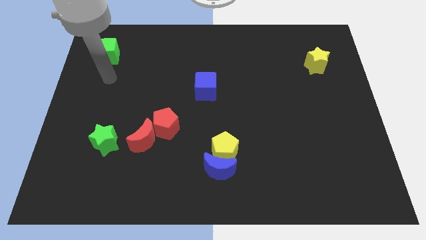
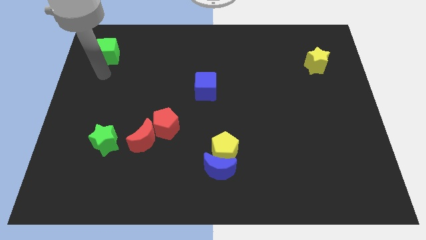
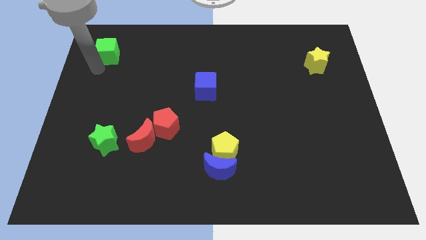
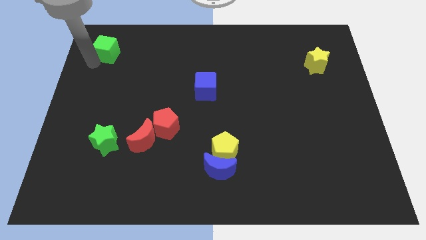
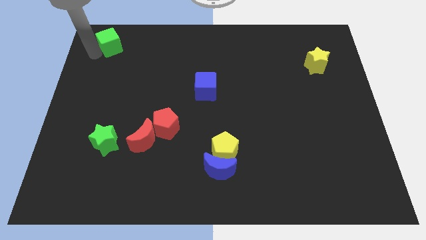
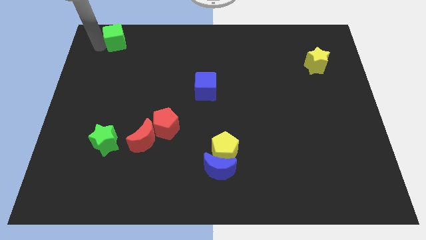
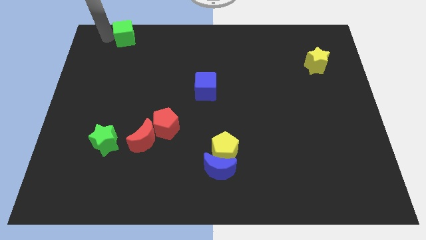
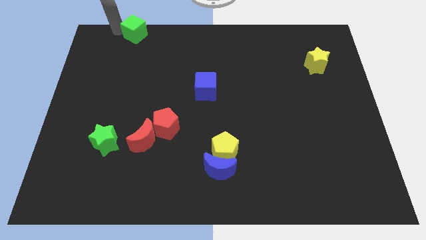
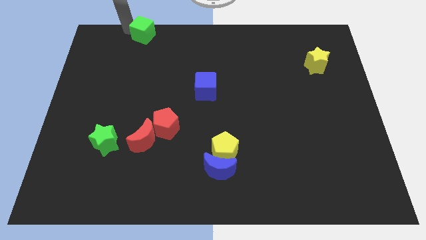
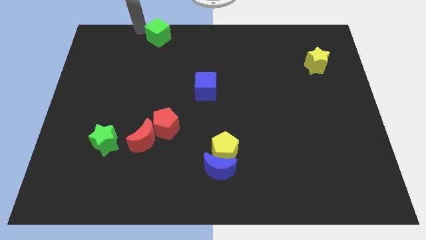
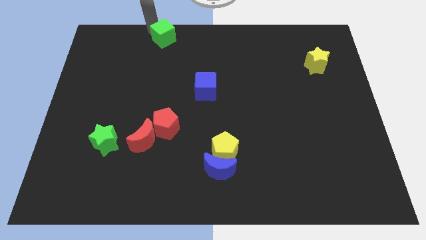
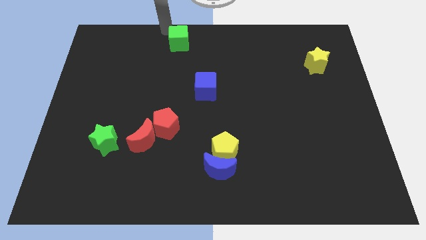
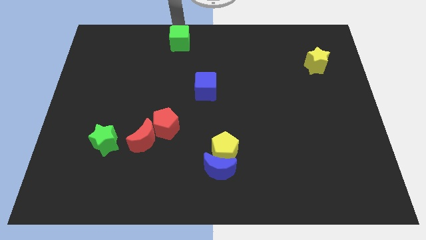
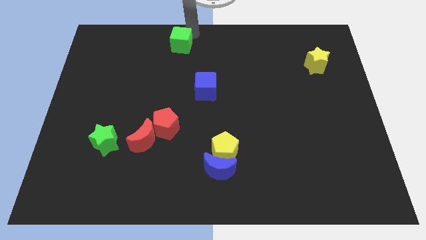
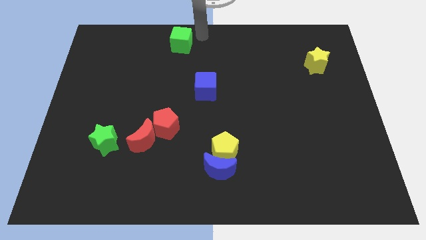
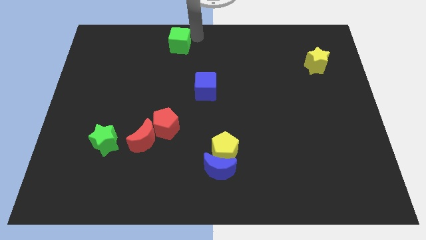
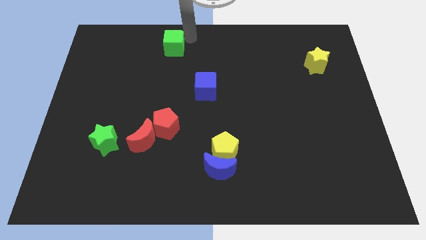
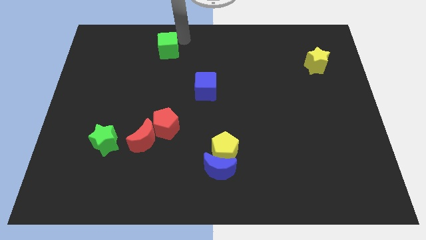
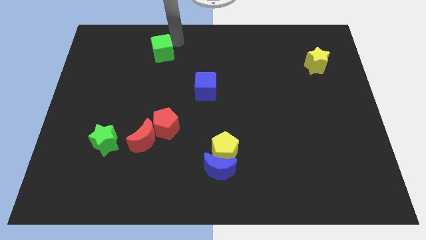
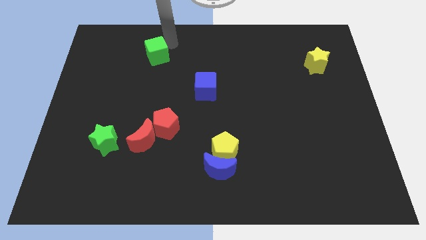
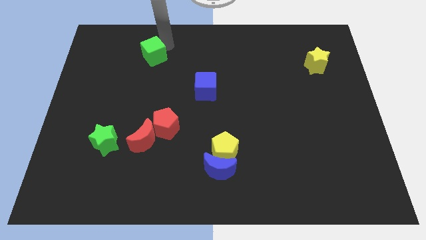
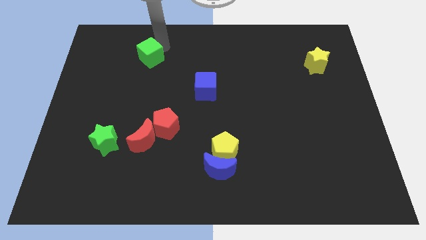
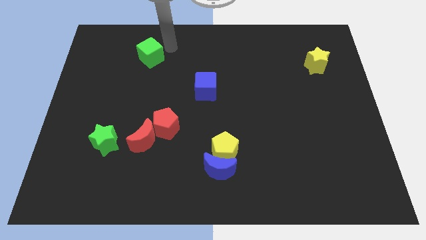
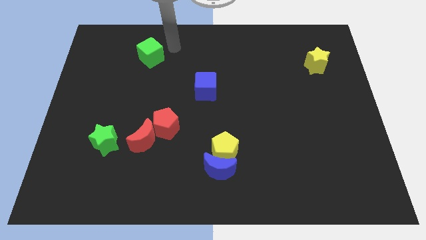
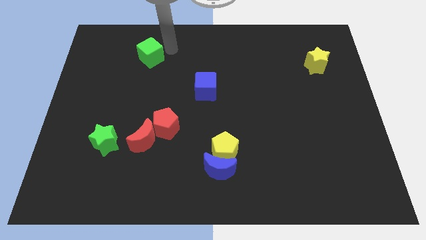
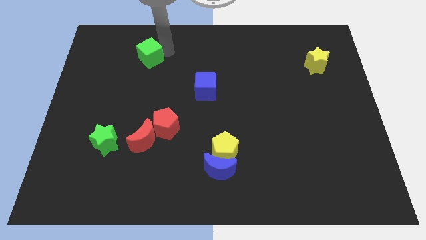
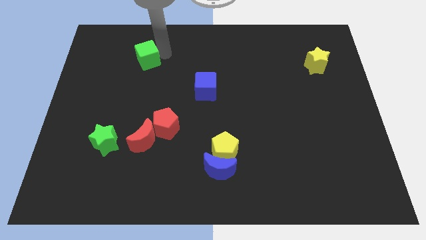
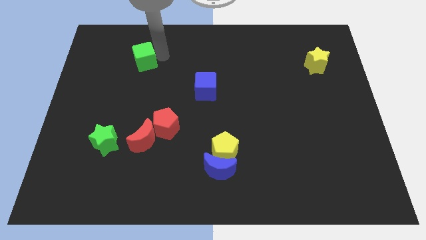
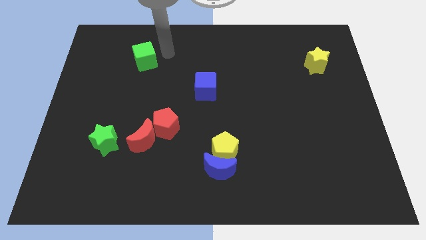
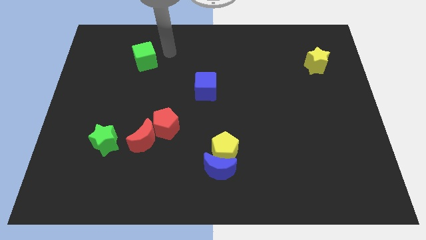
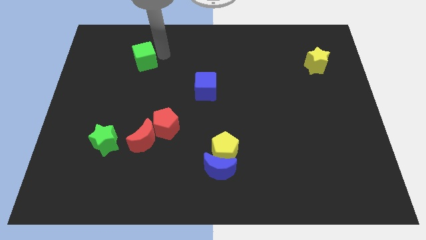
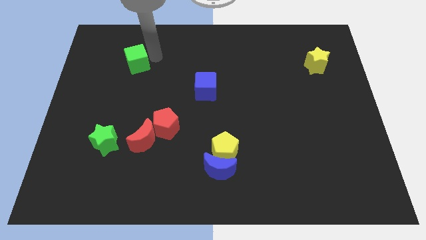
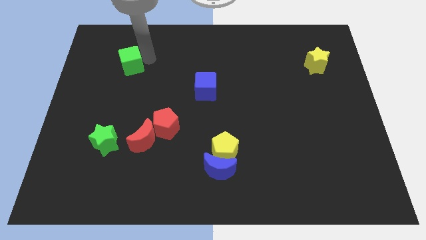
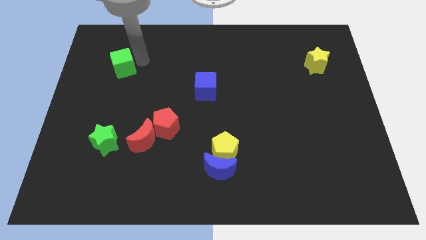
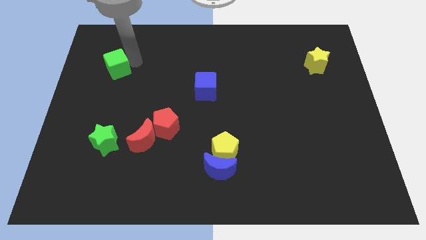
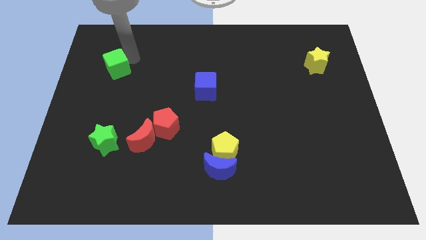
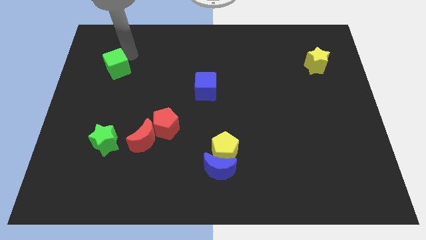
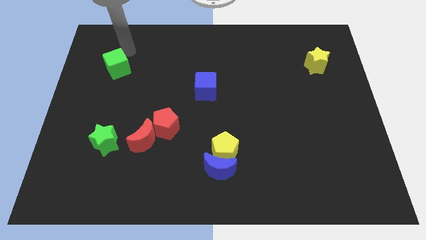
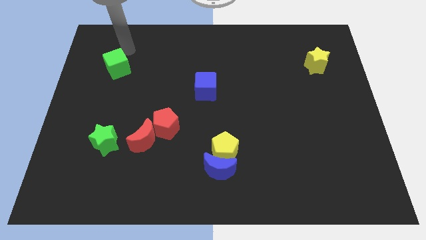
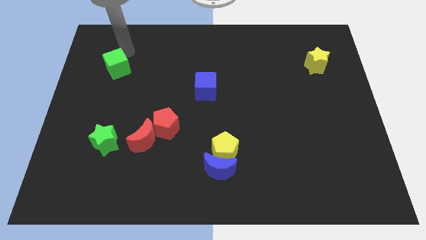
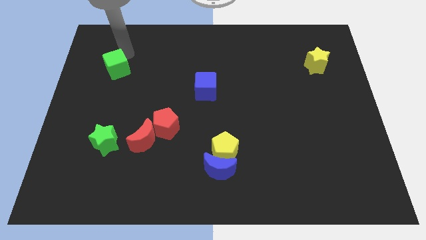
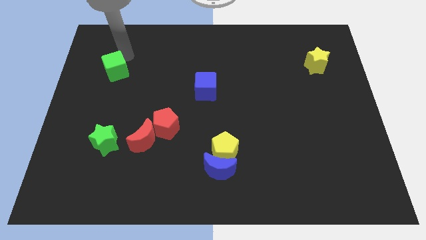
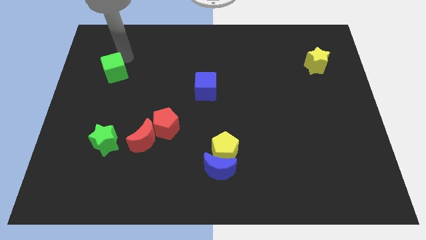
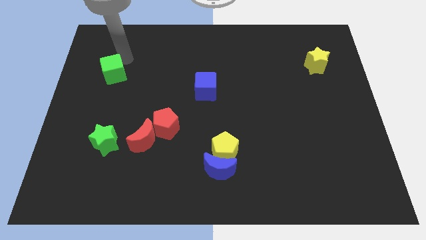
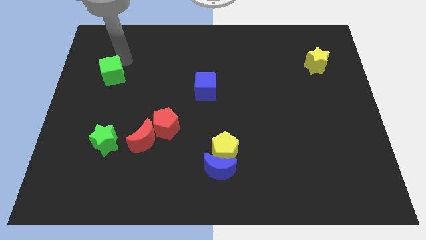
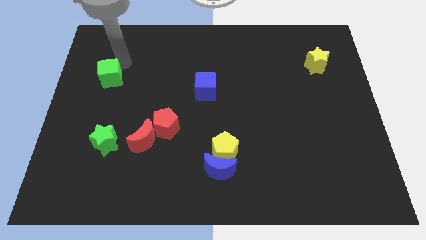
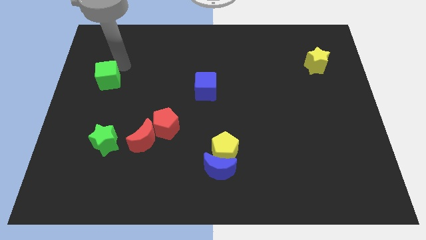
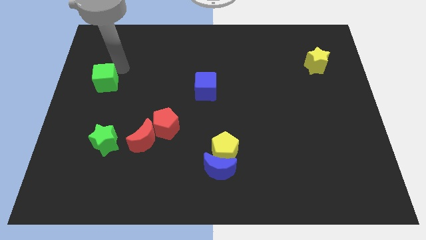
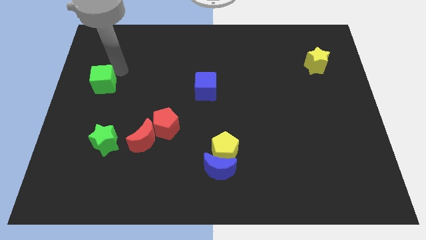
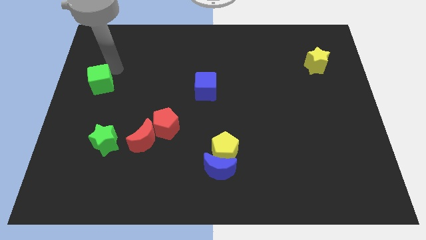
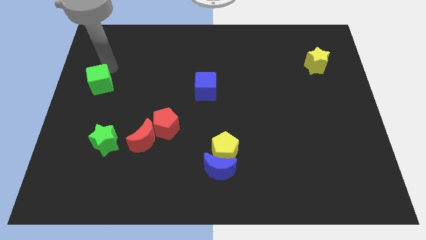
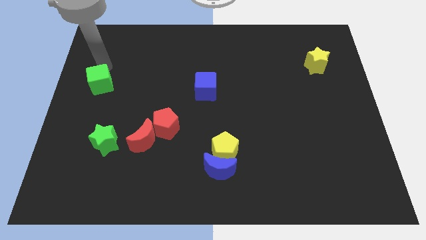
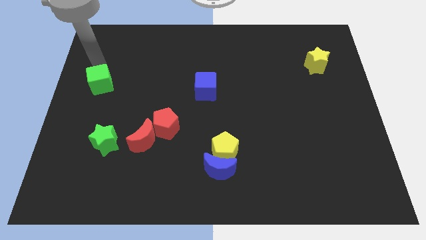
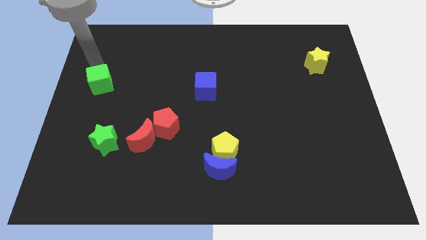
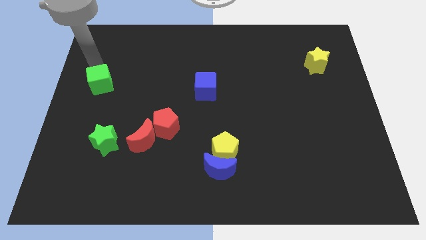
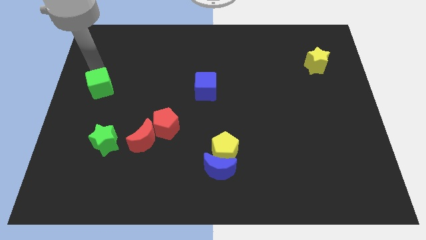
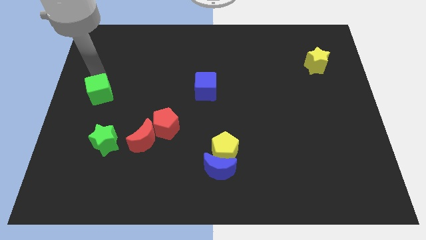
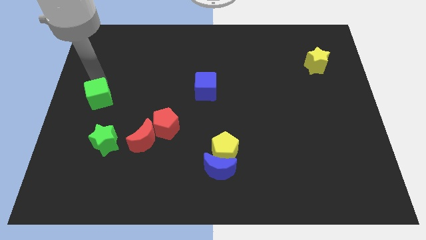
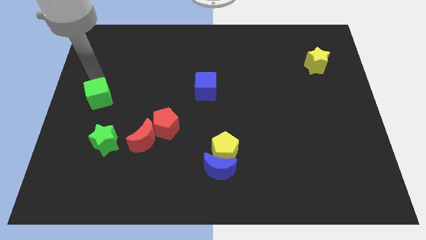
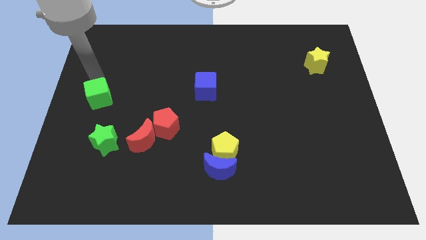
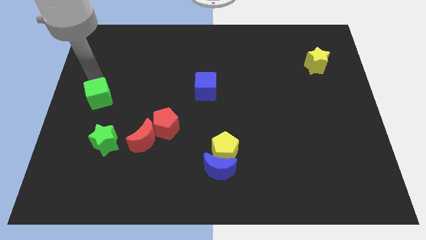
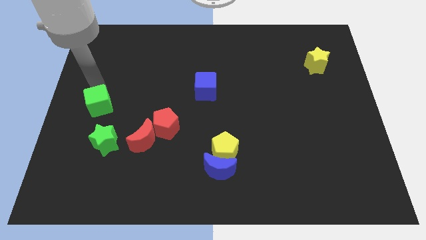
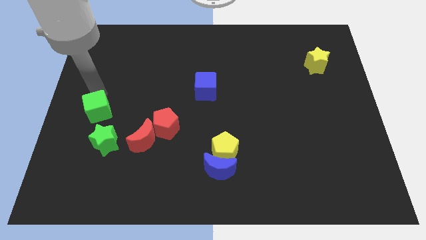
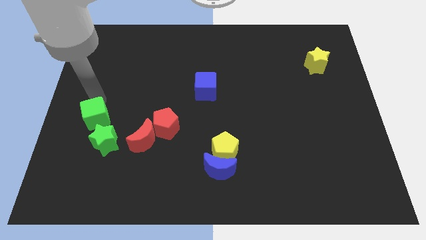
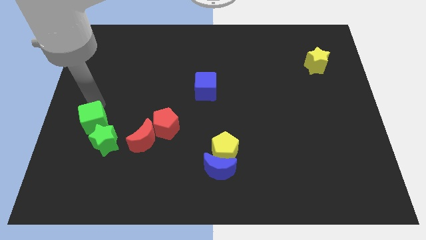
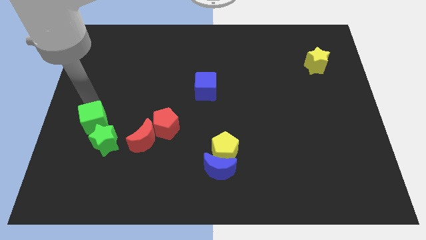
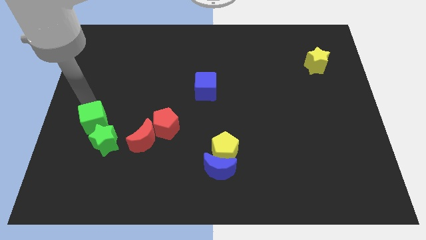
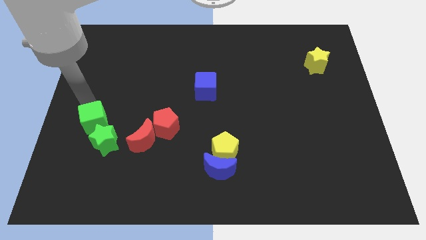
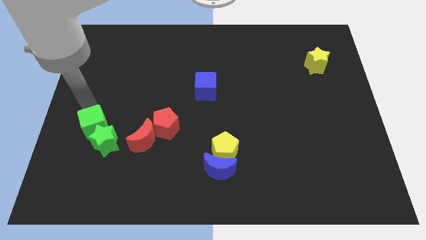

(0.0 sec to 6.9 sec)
slide the green cube to the green star
